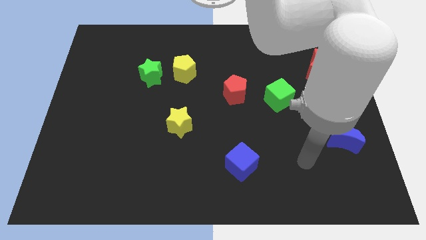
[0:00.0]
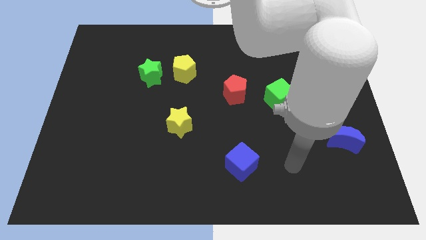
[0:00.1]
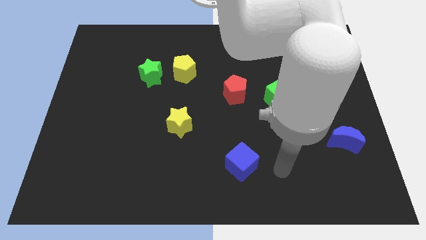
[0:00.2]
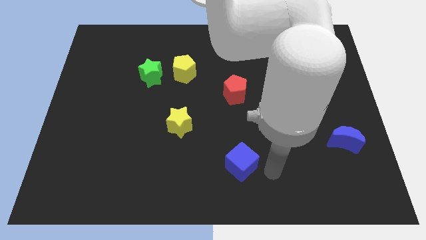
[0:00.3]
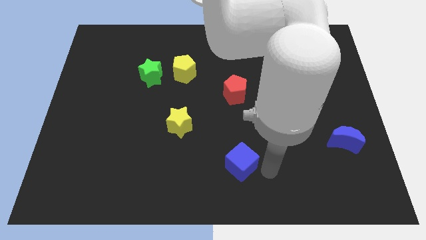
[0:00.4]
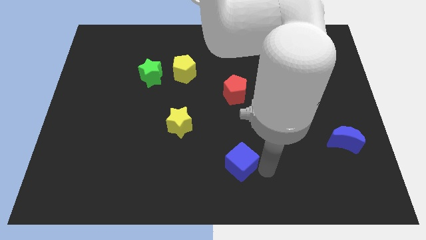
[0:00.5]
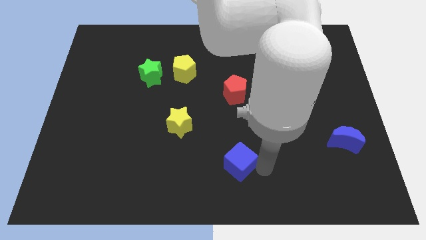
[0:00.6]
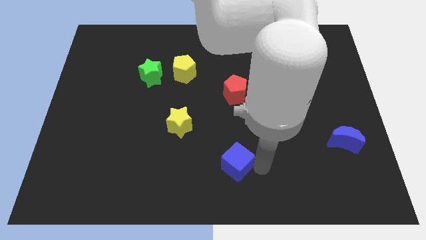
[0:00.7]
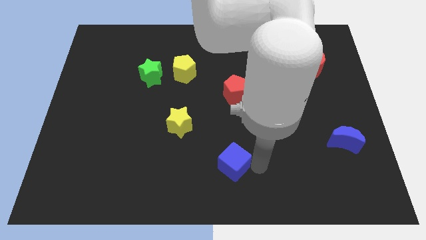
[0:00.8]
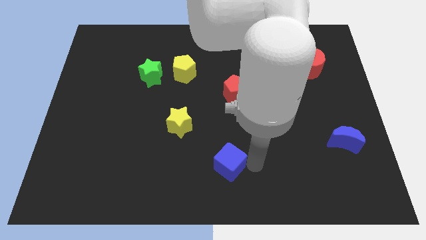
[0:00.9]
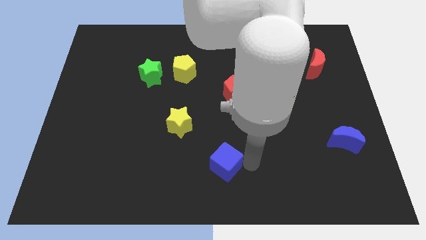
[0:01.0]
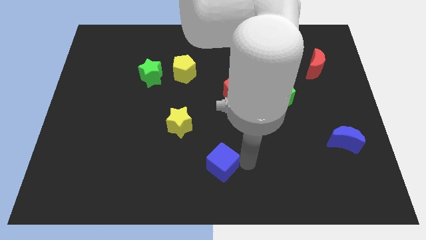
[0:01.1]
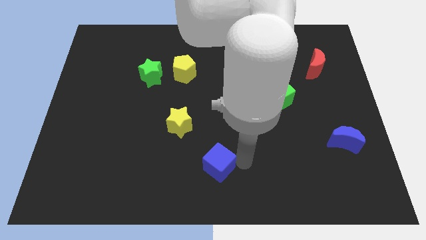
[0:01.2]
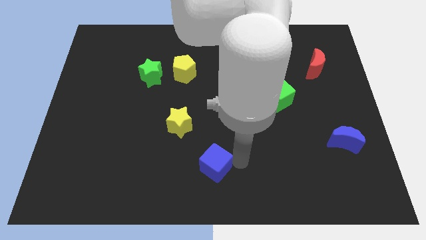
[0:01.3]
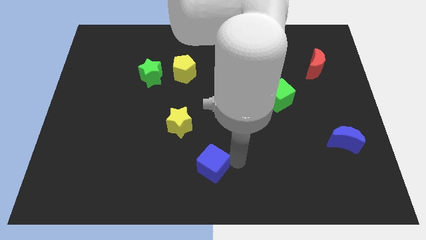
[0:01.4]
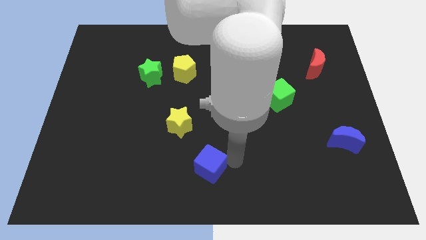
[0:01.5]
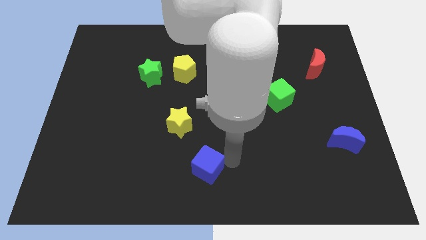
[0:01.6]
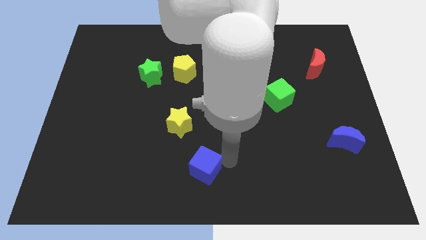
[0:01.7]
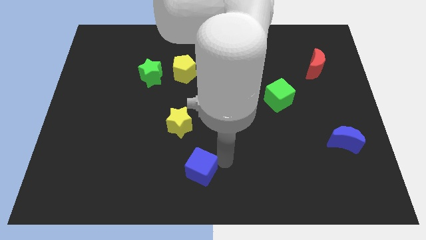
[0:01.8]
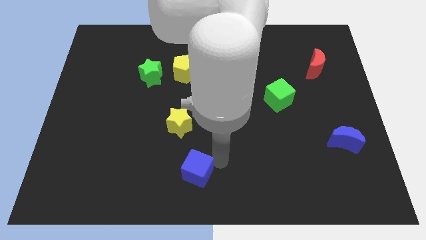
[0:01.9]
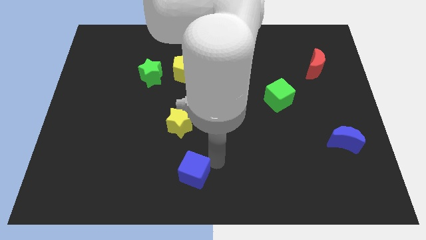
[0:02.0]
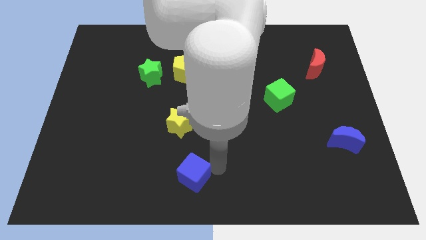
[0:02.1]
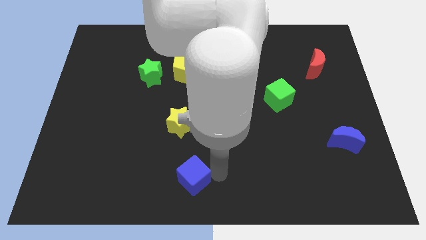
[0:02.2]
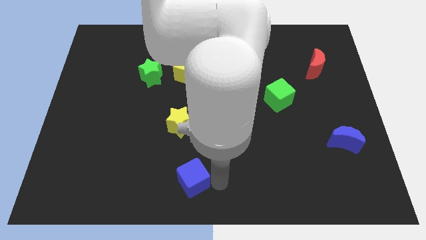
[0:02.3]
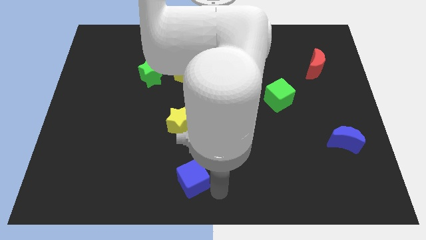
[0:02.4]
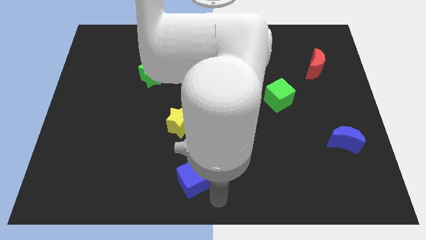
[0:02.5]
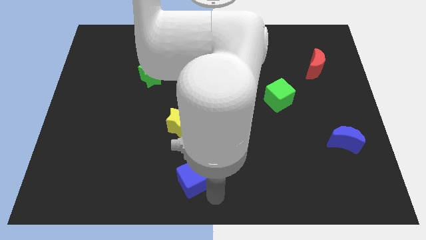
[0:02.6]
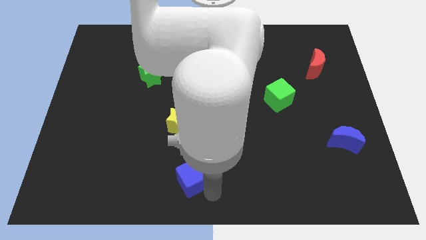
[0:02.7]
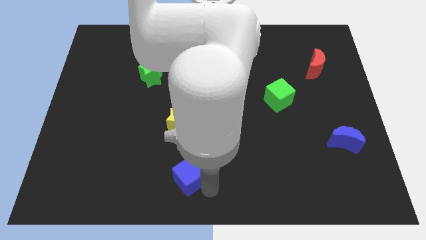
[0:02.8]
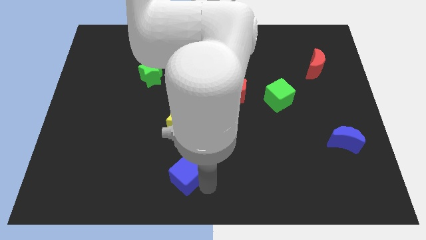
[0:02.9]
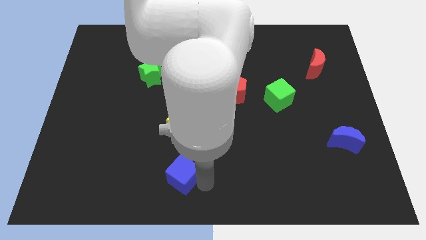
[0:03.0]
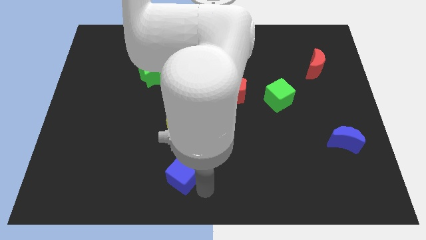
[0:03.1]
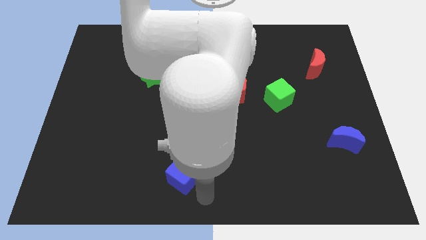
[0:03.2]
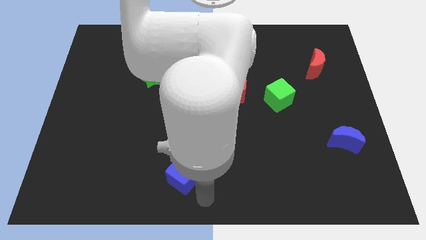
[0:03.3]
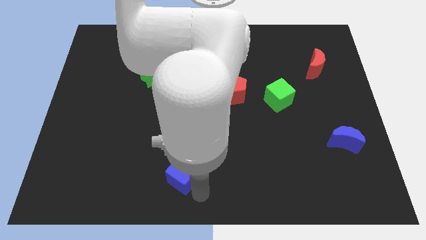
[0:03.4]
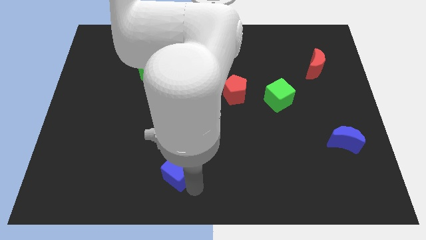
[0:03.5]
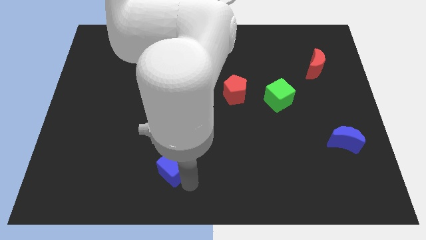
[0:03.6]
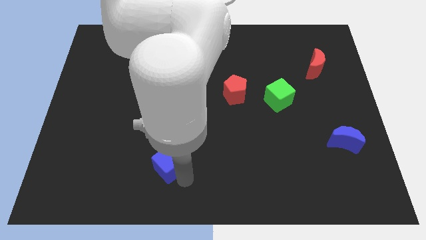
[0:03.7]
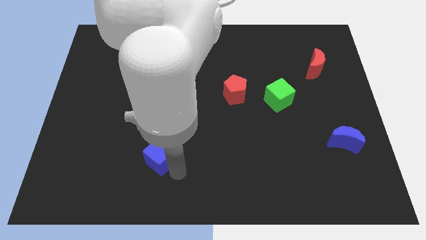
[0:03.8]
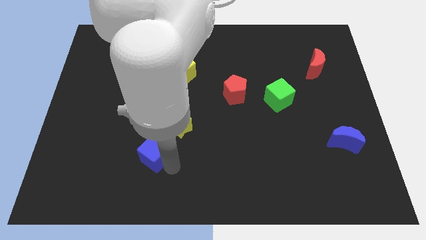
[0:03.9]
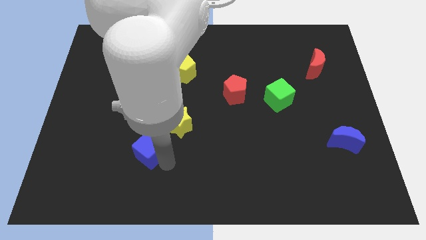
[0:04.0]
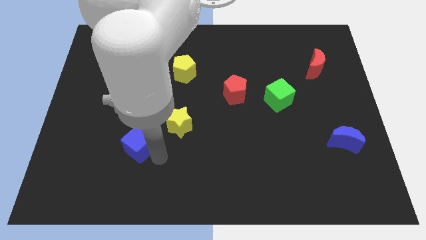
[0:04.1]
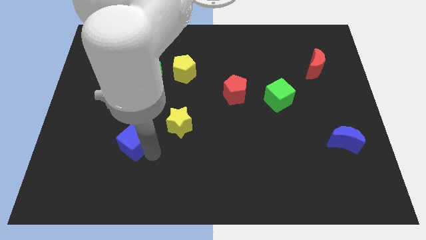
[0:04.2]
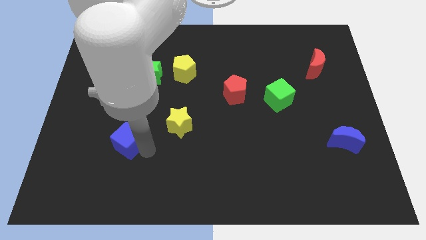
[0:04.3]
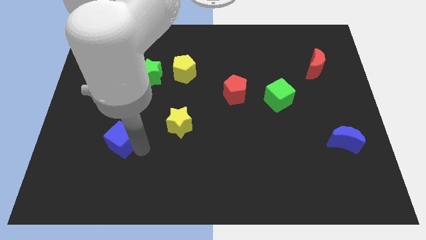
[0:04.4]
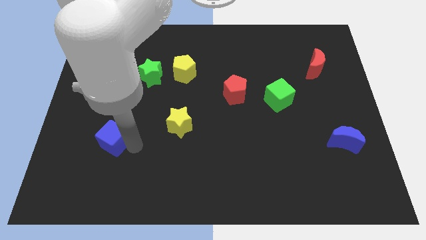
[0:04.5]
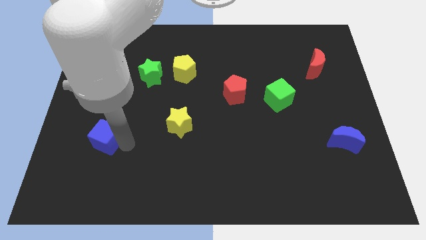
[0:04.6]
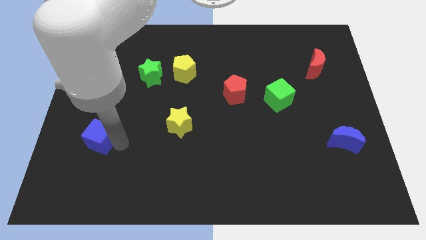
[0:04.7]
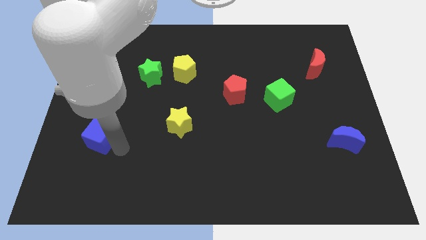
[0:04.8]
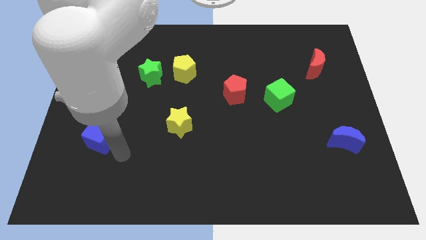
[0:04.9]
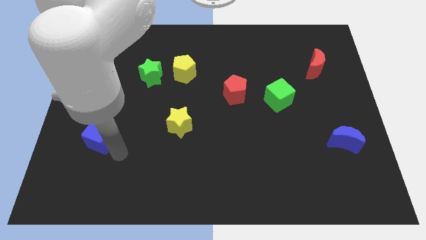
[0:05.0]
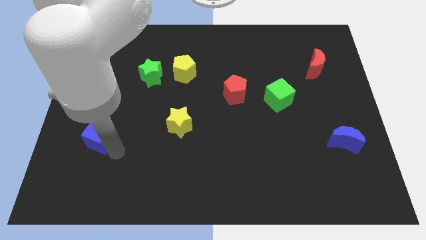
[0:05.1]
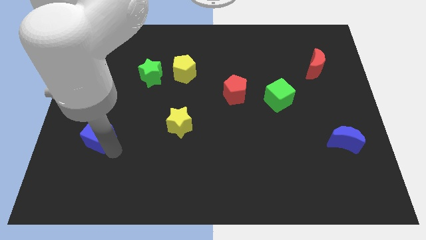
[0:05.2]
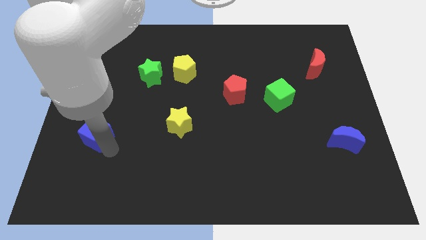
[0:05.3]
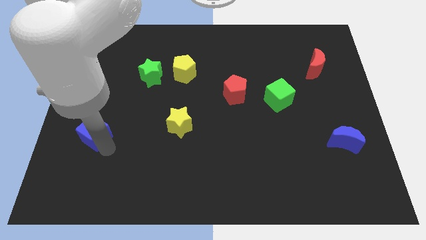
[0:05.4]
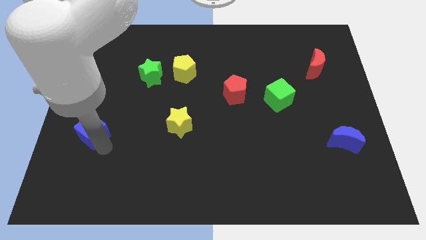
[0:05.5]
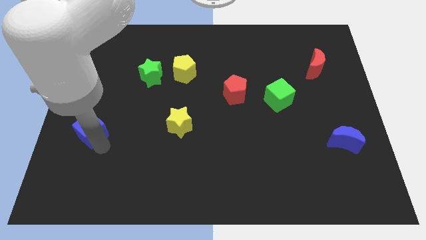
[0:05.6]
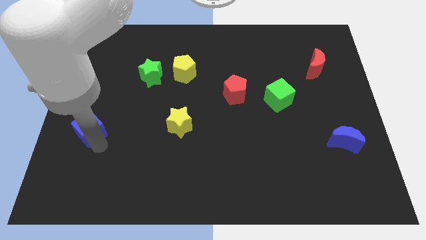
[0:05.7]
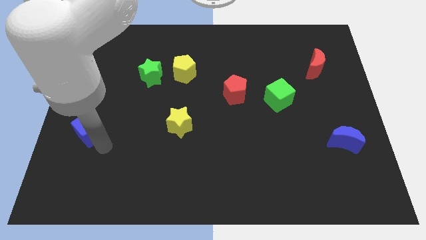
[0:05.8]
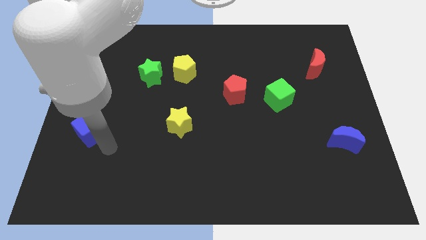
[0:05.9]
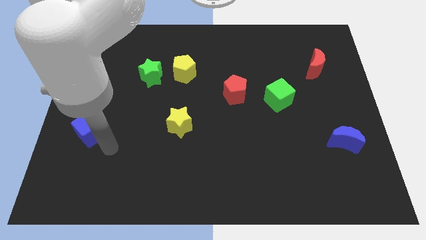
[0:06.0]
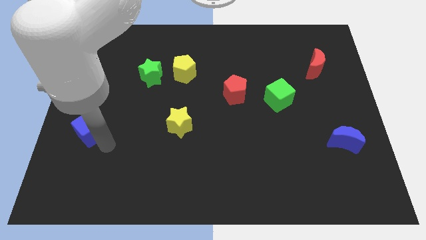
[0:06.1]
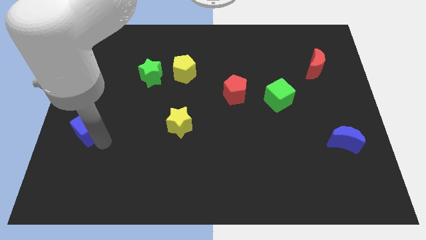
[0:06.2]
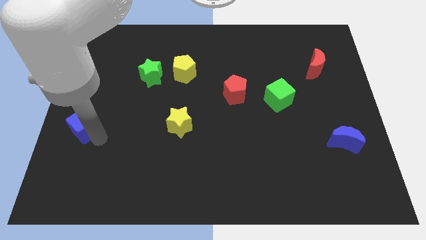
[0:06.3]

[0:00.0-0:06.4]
push the blue cube to the left side of the board

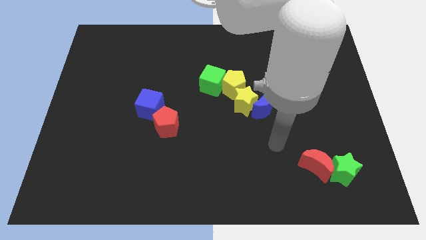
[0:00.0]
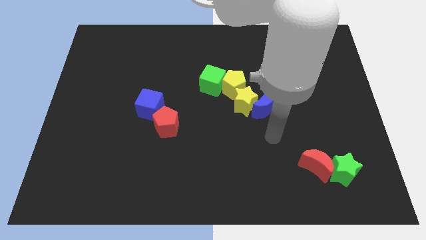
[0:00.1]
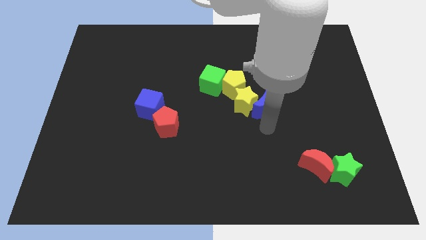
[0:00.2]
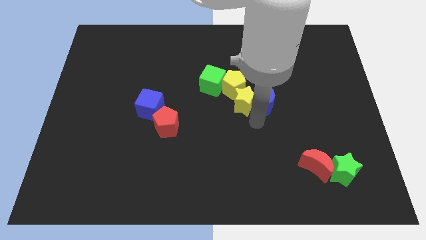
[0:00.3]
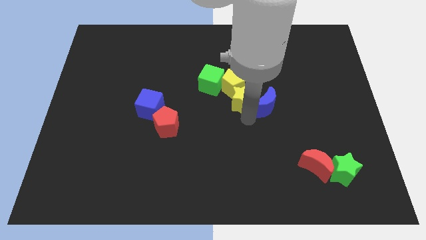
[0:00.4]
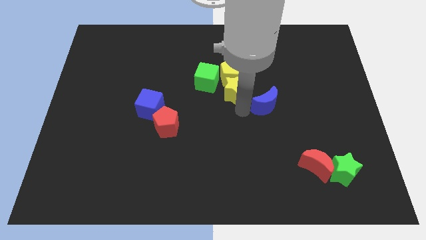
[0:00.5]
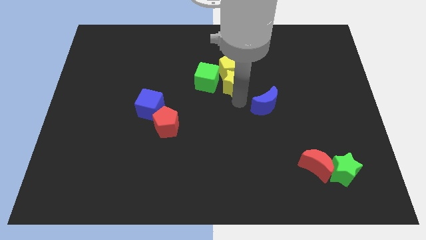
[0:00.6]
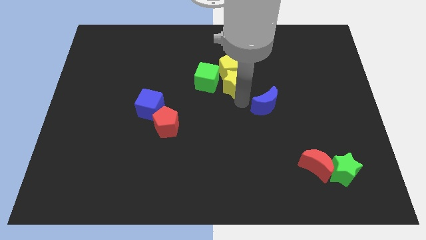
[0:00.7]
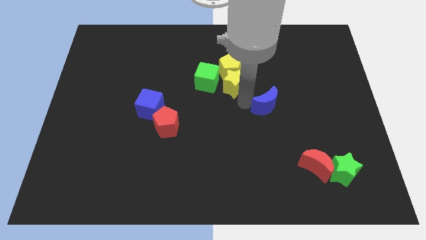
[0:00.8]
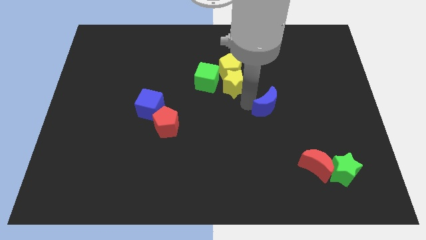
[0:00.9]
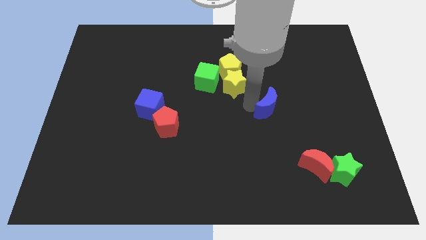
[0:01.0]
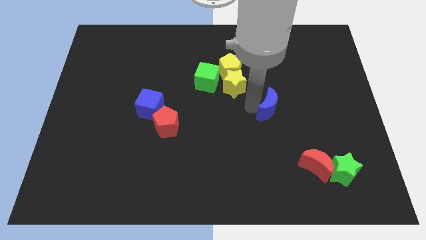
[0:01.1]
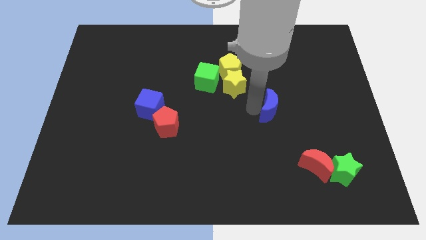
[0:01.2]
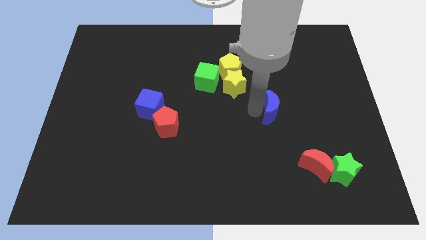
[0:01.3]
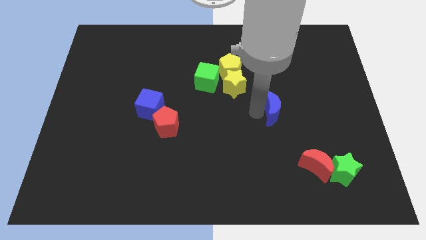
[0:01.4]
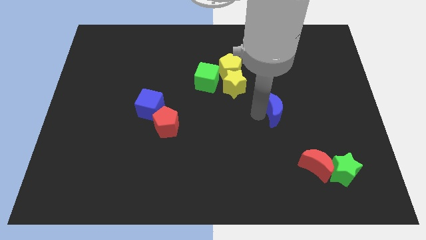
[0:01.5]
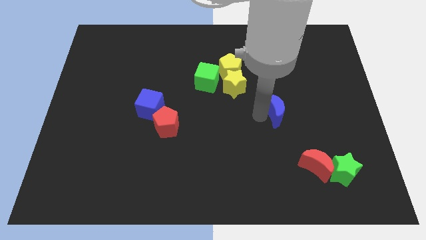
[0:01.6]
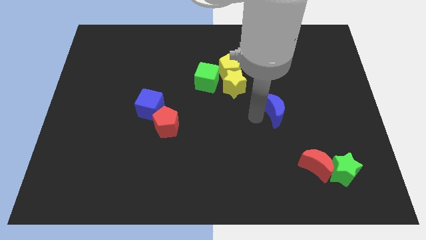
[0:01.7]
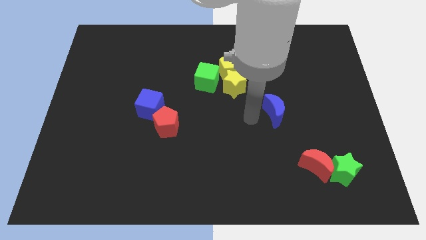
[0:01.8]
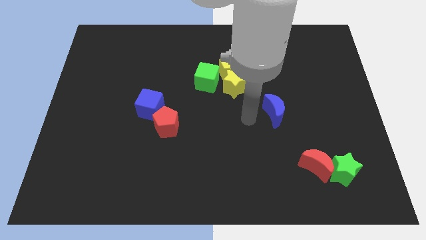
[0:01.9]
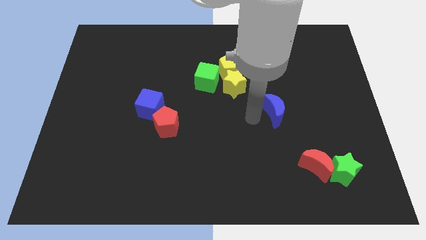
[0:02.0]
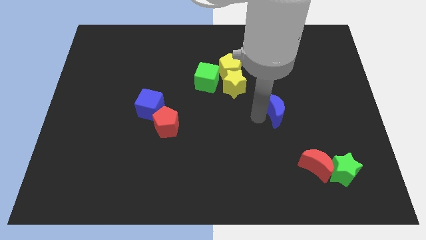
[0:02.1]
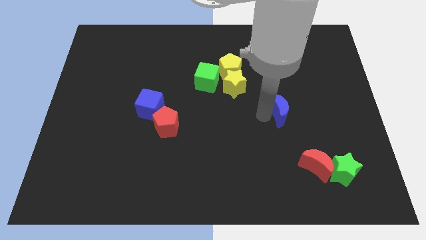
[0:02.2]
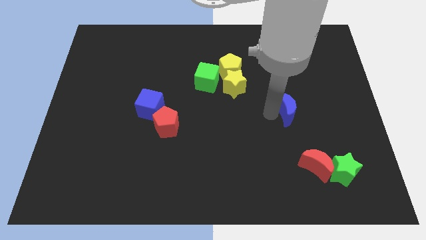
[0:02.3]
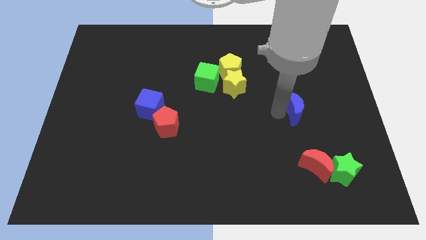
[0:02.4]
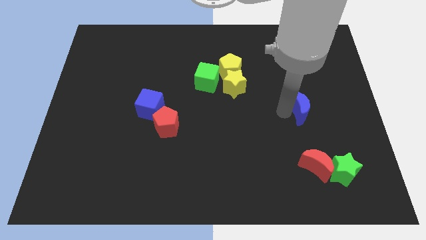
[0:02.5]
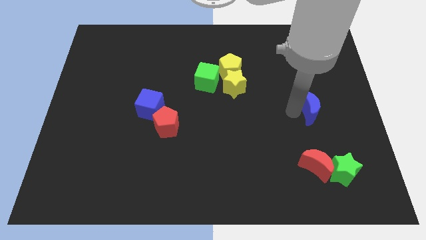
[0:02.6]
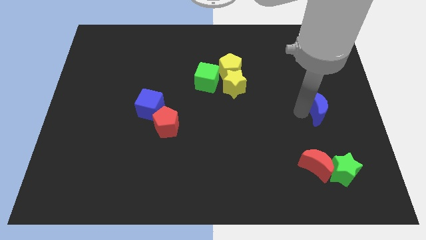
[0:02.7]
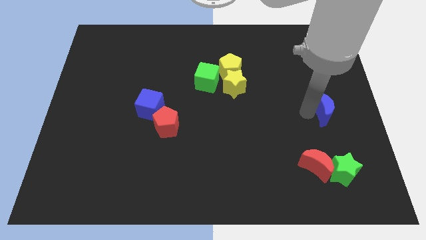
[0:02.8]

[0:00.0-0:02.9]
move the blue moon to the center right
